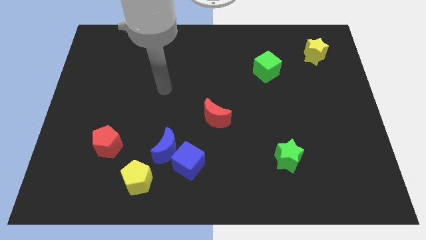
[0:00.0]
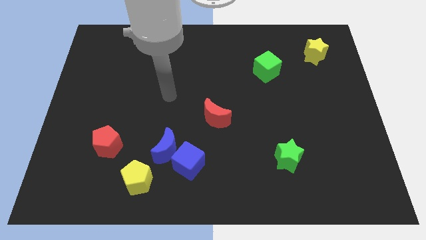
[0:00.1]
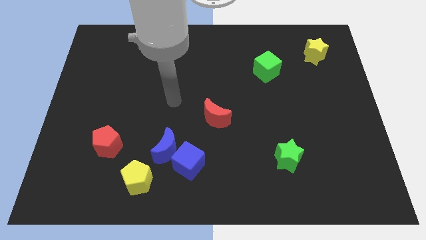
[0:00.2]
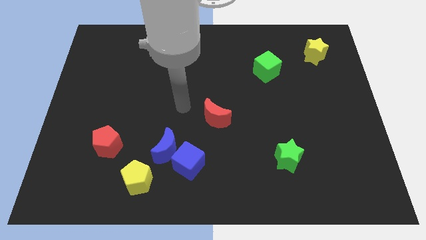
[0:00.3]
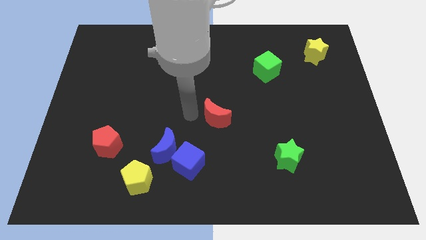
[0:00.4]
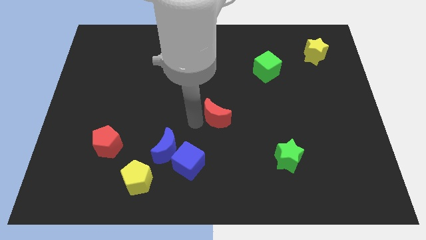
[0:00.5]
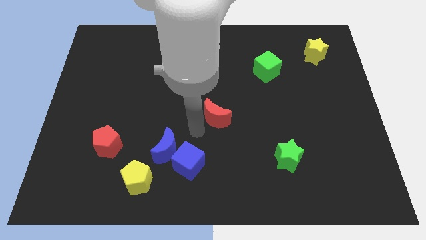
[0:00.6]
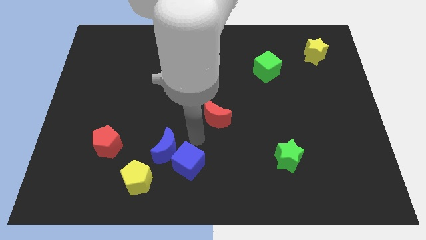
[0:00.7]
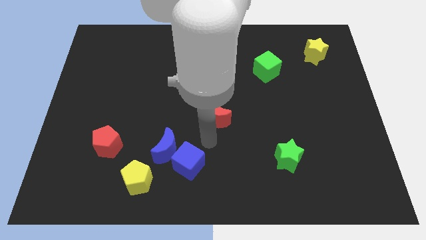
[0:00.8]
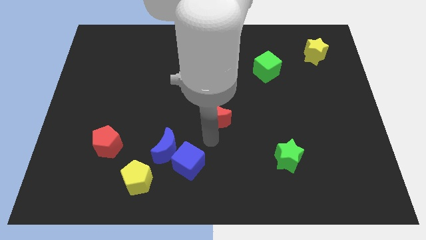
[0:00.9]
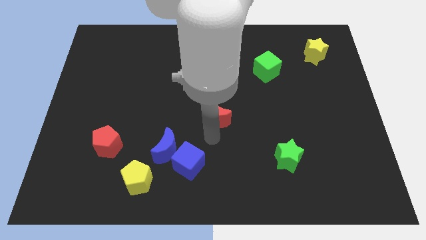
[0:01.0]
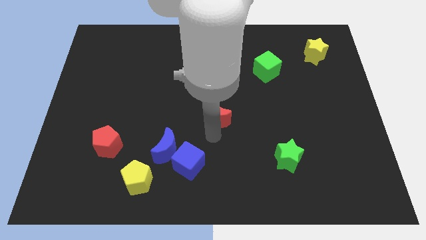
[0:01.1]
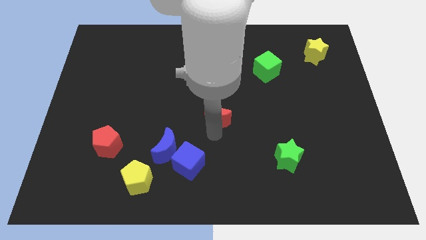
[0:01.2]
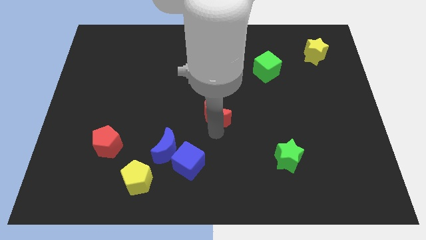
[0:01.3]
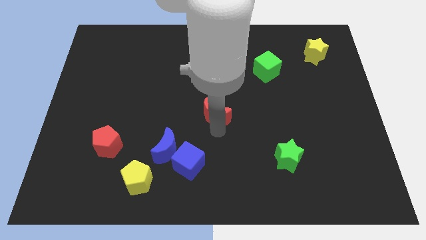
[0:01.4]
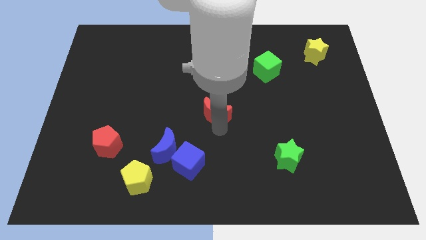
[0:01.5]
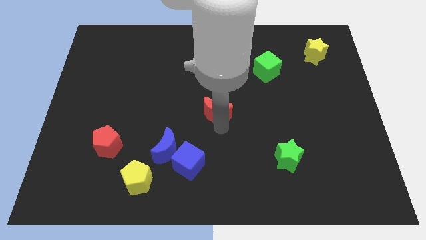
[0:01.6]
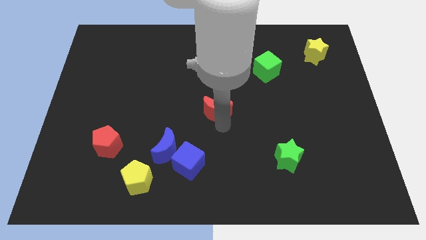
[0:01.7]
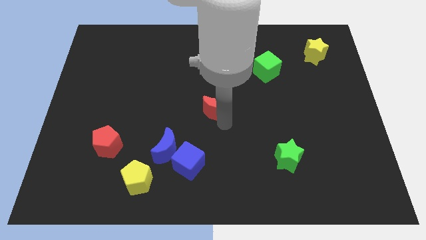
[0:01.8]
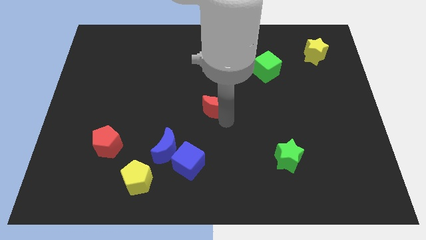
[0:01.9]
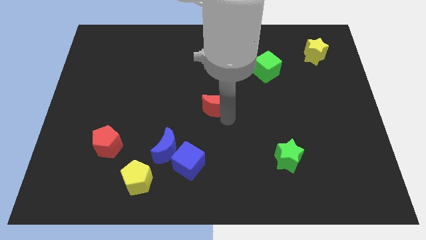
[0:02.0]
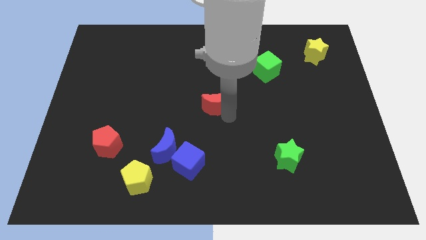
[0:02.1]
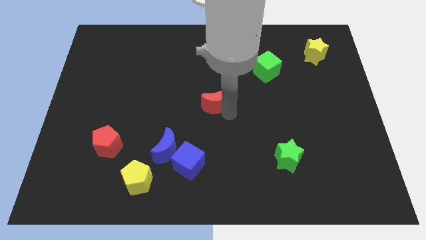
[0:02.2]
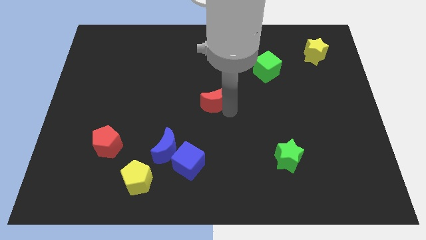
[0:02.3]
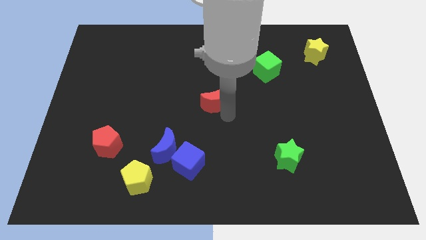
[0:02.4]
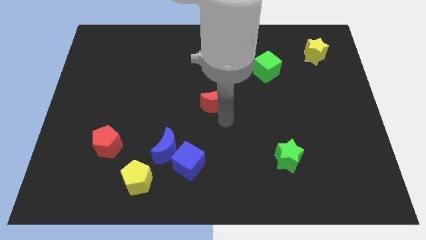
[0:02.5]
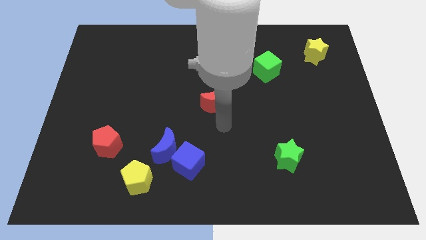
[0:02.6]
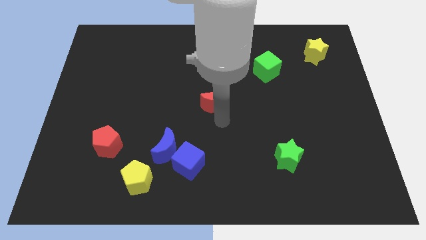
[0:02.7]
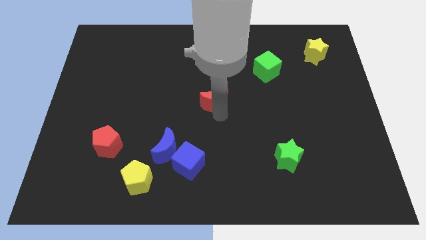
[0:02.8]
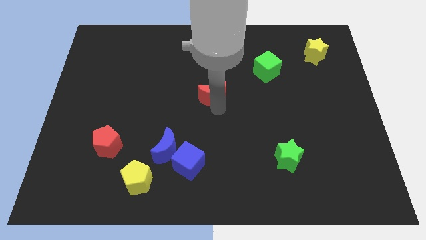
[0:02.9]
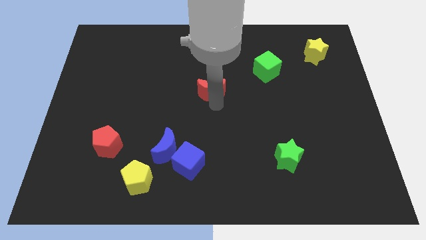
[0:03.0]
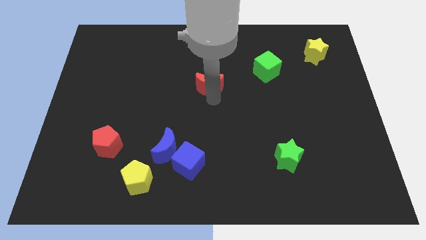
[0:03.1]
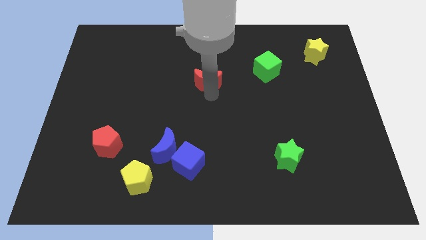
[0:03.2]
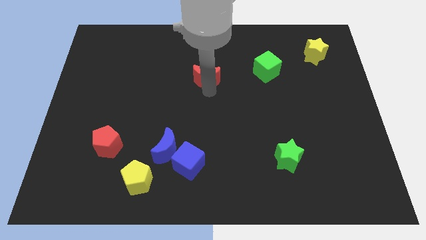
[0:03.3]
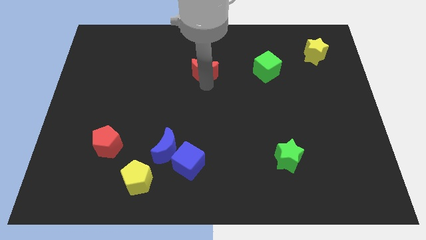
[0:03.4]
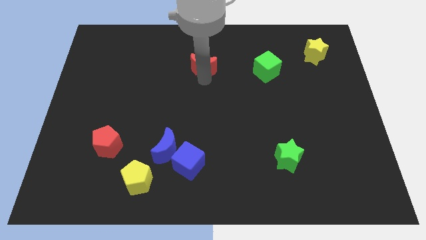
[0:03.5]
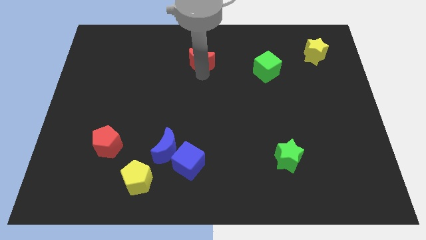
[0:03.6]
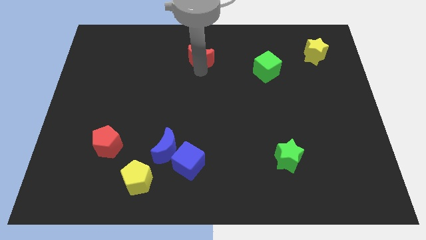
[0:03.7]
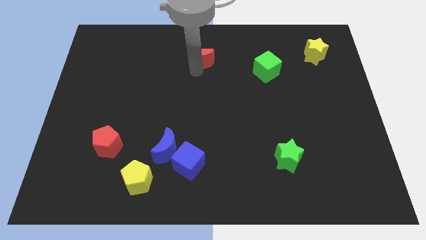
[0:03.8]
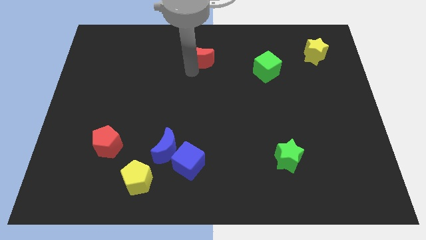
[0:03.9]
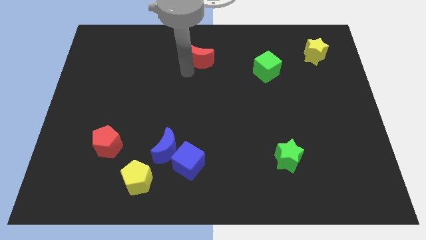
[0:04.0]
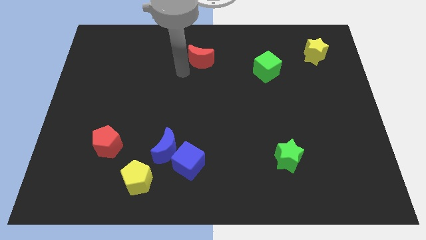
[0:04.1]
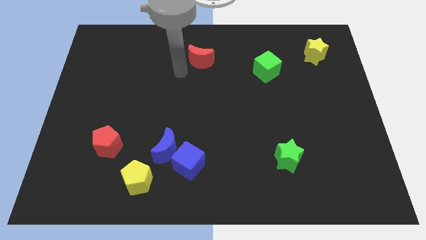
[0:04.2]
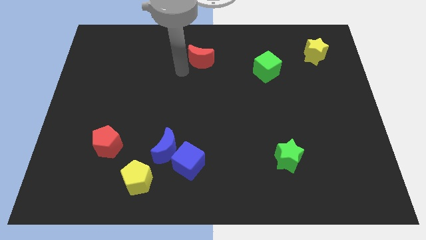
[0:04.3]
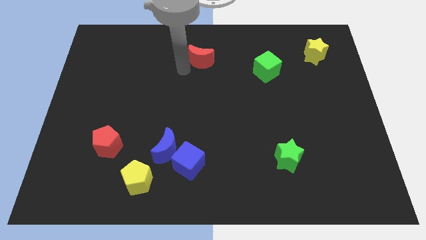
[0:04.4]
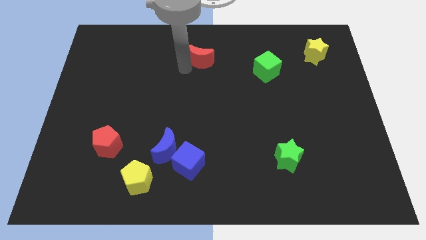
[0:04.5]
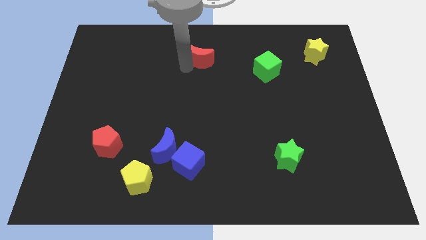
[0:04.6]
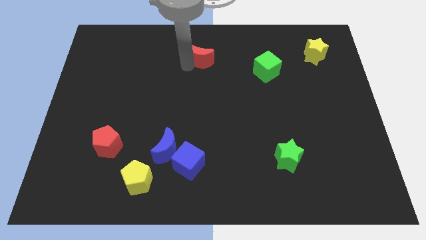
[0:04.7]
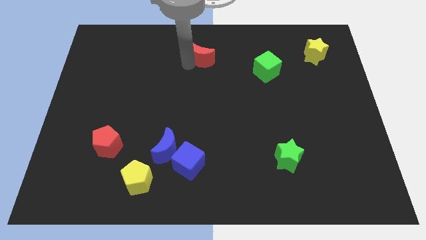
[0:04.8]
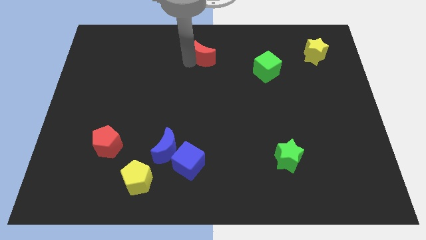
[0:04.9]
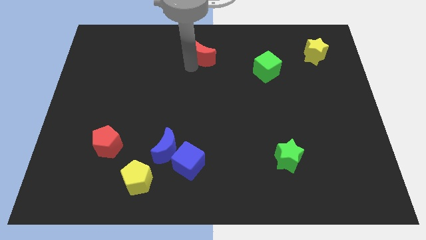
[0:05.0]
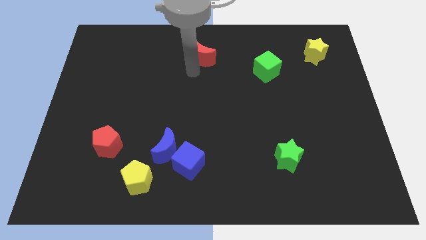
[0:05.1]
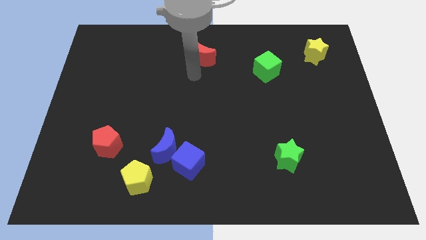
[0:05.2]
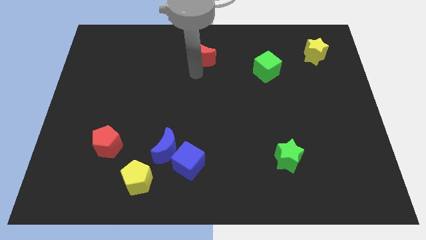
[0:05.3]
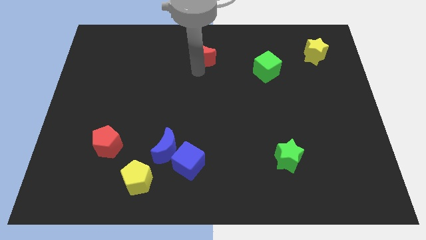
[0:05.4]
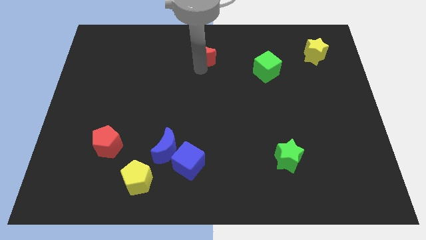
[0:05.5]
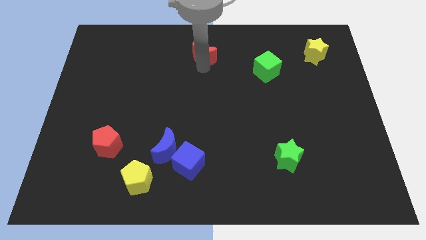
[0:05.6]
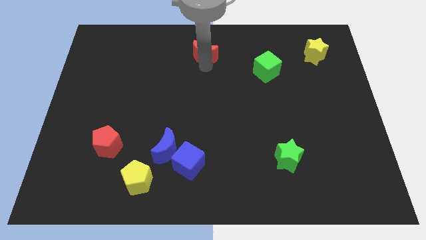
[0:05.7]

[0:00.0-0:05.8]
push the red moon to the top side

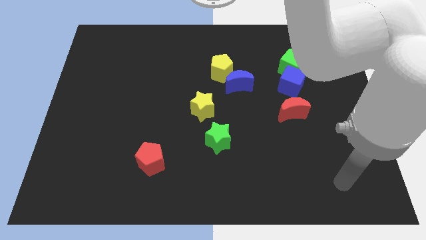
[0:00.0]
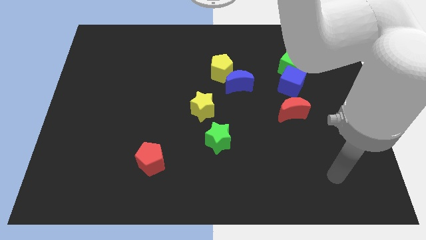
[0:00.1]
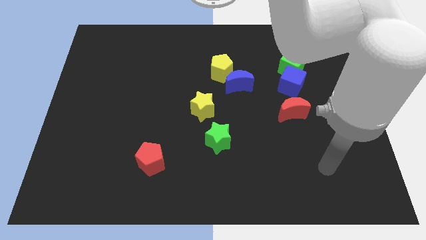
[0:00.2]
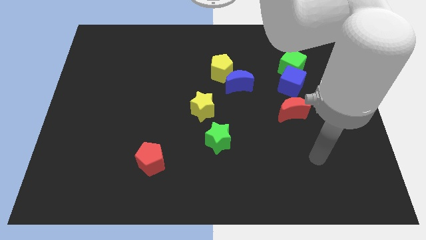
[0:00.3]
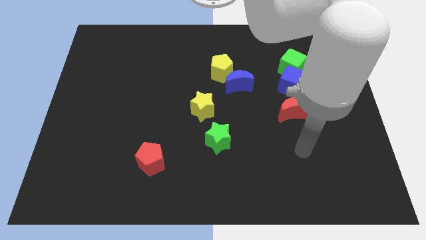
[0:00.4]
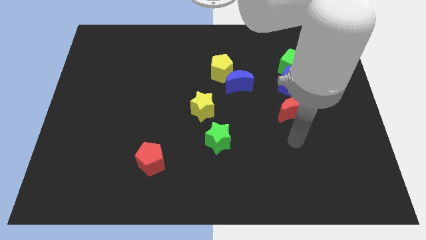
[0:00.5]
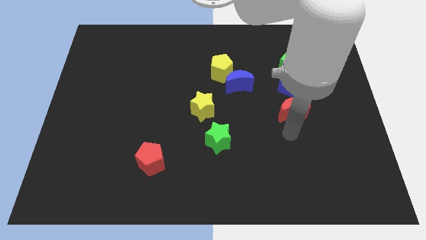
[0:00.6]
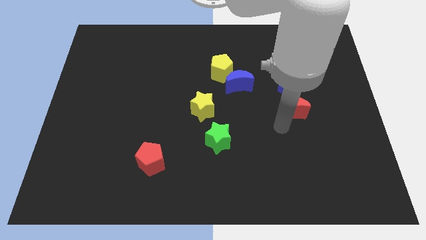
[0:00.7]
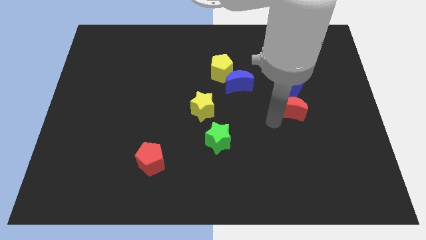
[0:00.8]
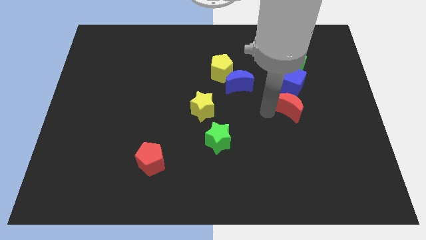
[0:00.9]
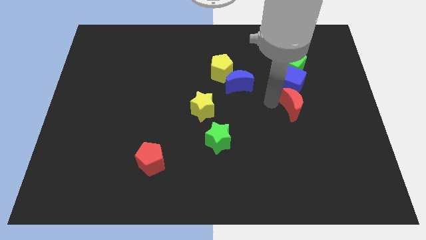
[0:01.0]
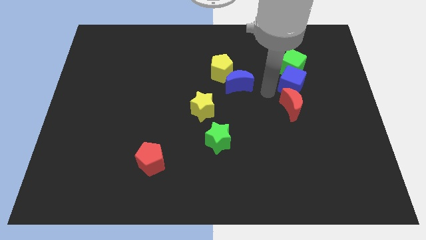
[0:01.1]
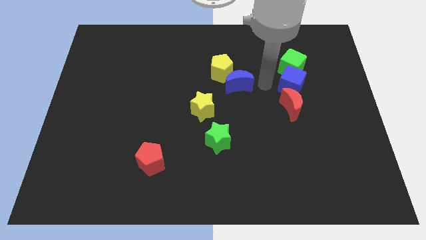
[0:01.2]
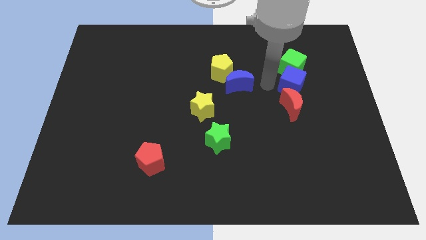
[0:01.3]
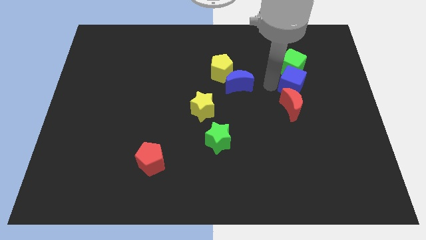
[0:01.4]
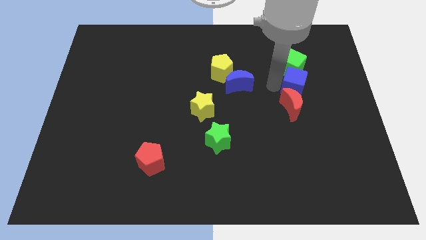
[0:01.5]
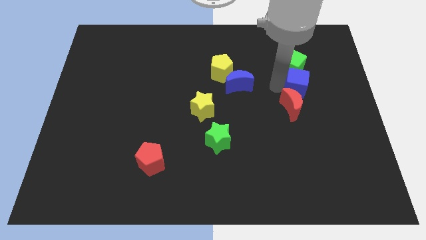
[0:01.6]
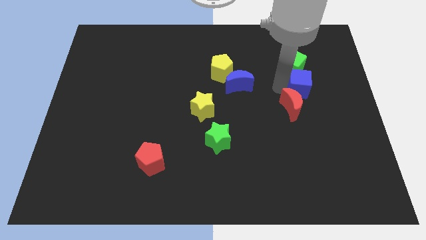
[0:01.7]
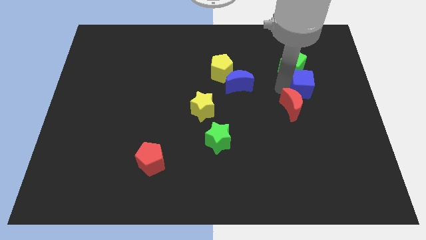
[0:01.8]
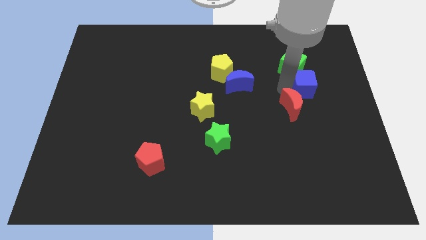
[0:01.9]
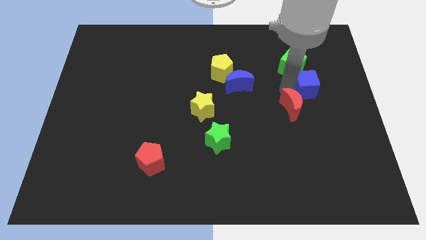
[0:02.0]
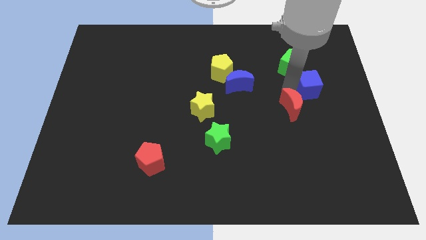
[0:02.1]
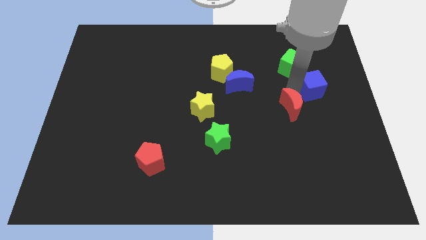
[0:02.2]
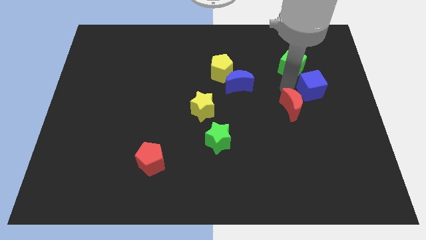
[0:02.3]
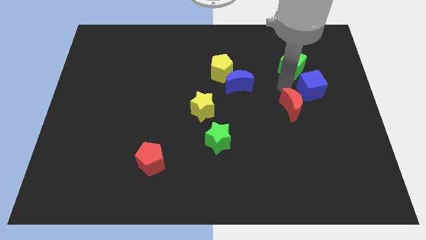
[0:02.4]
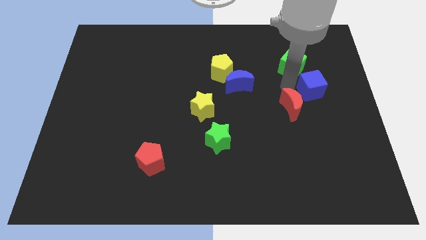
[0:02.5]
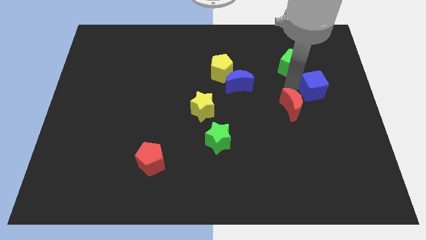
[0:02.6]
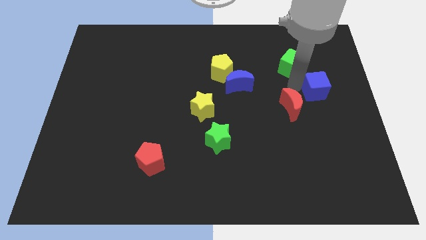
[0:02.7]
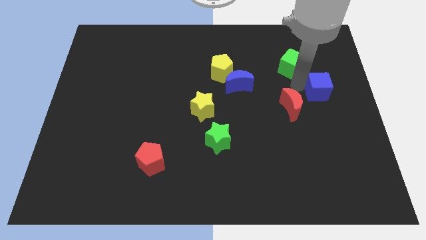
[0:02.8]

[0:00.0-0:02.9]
slide the blue cube to the right side
